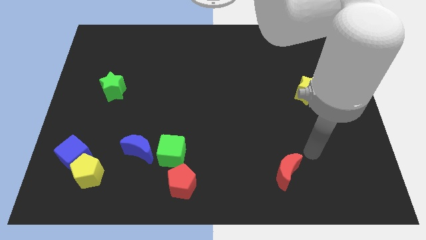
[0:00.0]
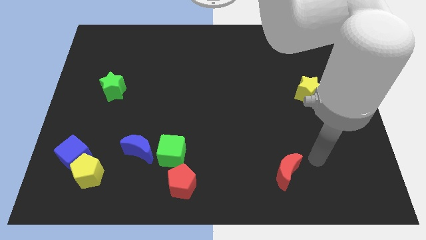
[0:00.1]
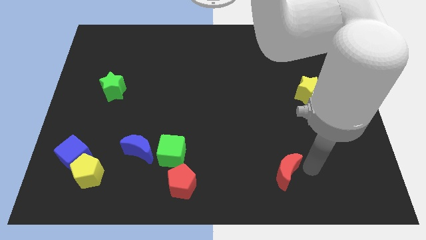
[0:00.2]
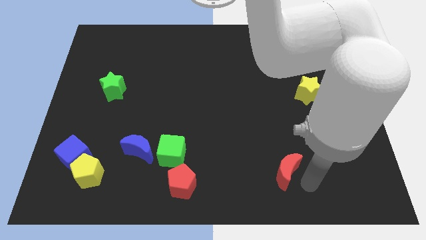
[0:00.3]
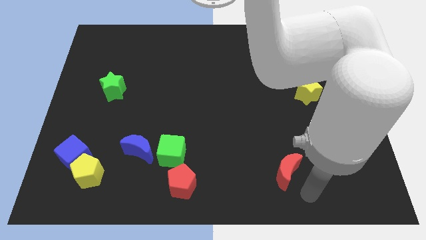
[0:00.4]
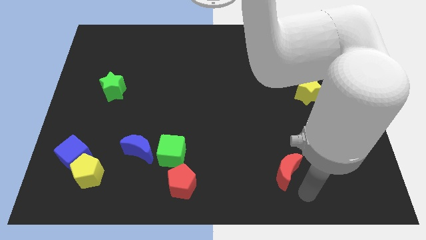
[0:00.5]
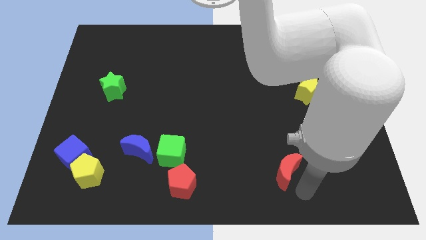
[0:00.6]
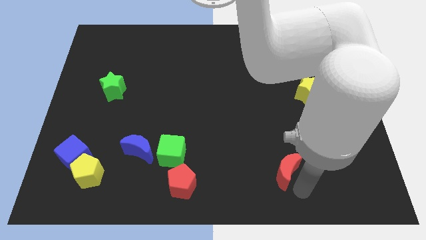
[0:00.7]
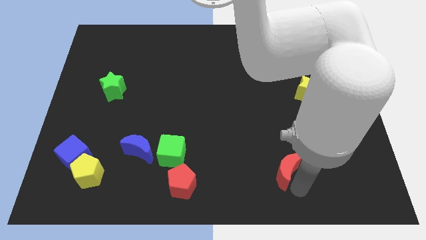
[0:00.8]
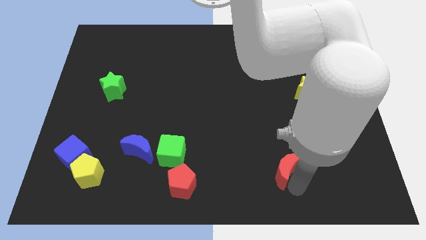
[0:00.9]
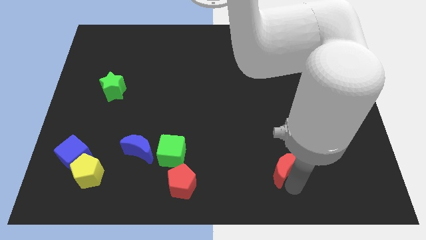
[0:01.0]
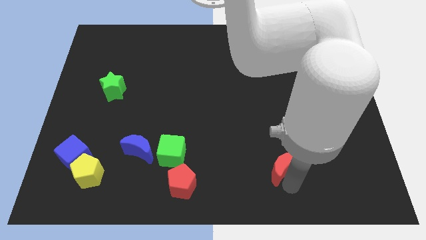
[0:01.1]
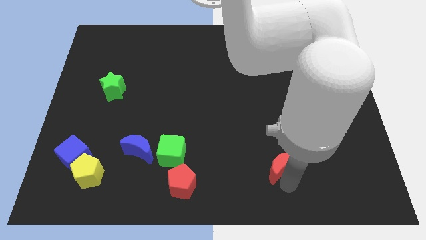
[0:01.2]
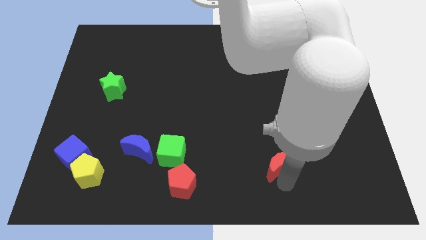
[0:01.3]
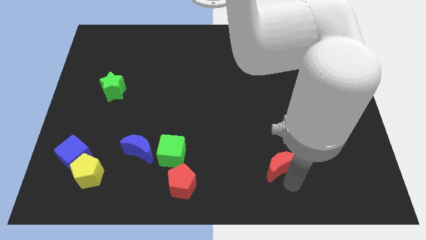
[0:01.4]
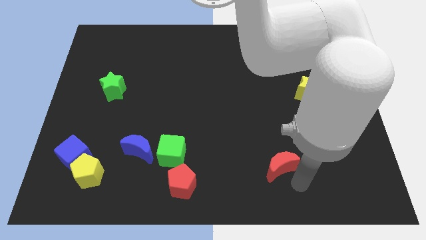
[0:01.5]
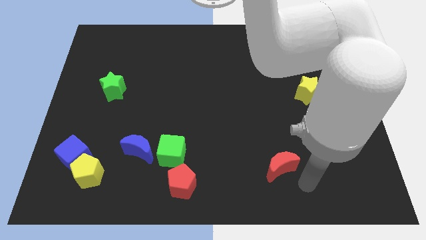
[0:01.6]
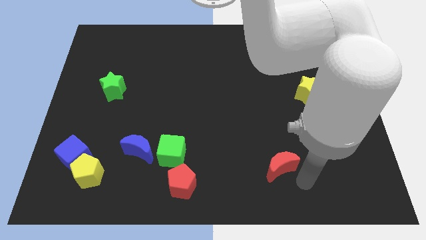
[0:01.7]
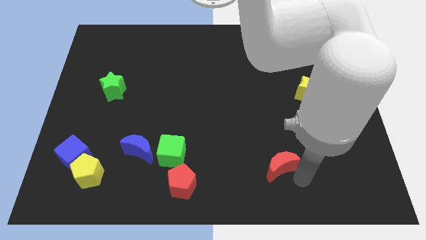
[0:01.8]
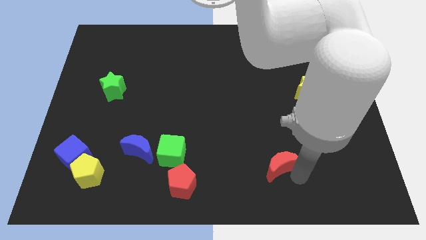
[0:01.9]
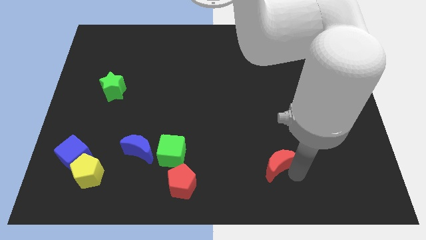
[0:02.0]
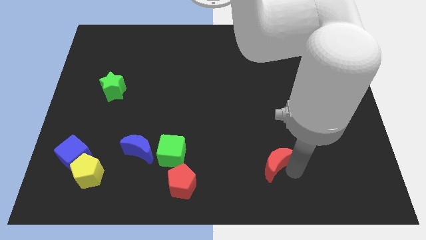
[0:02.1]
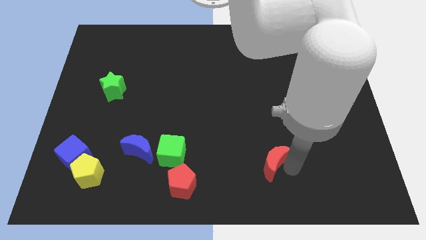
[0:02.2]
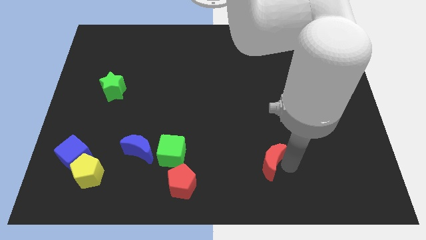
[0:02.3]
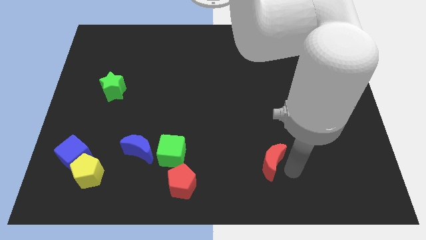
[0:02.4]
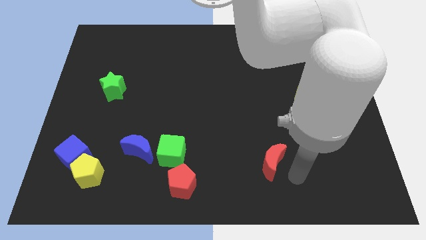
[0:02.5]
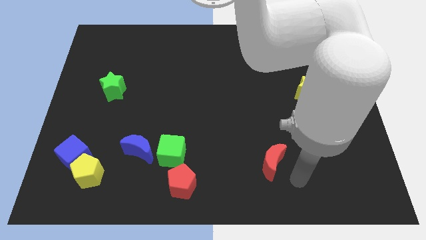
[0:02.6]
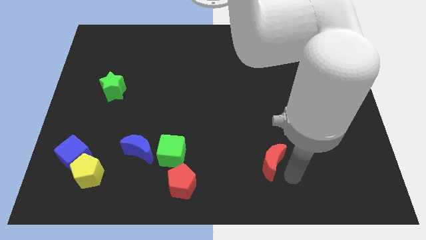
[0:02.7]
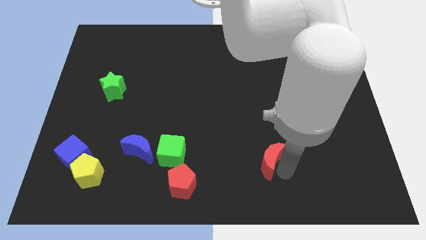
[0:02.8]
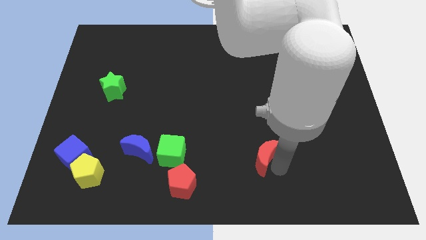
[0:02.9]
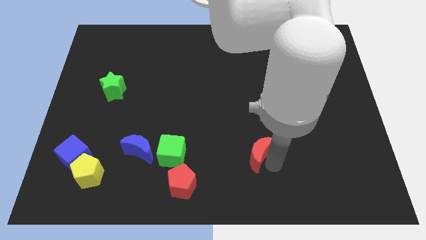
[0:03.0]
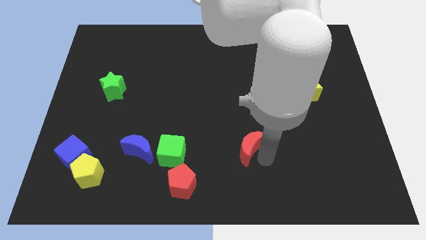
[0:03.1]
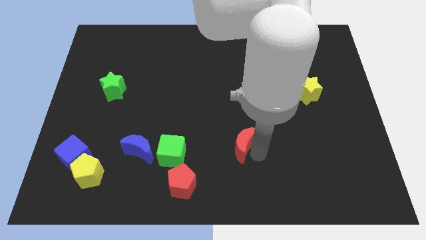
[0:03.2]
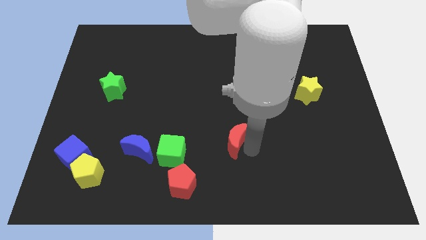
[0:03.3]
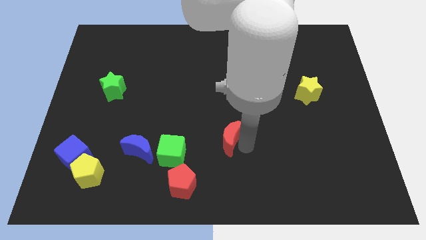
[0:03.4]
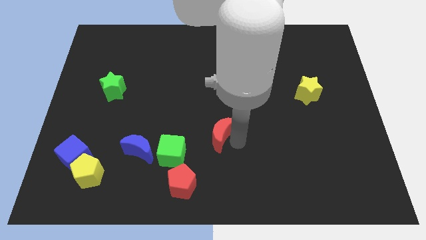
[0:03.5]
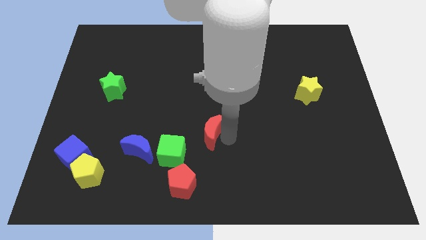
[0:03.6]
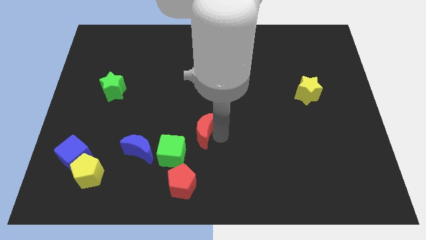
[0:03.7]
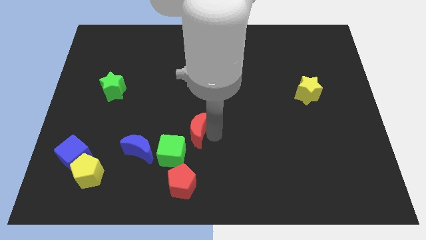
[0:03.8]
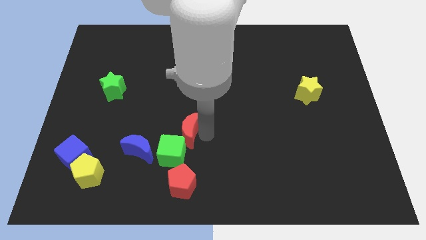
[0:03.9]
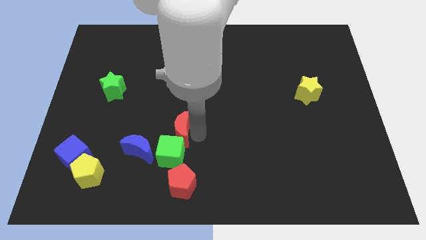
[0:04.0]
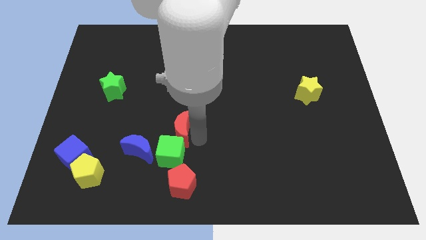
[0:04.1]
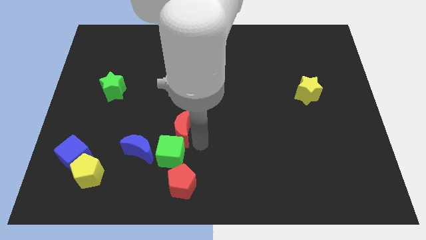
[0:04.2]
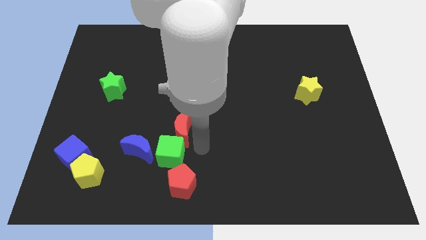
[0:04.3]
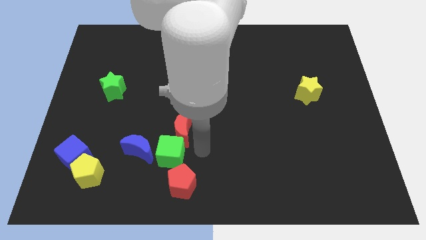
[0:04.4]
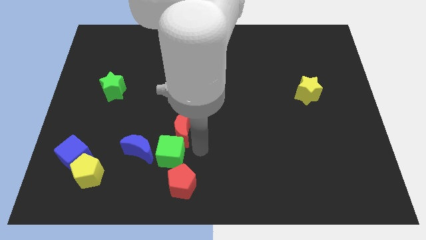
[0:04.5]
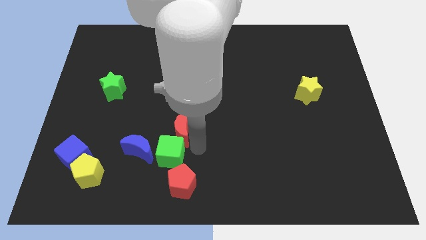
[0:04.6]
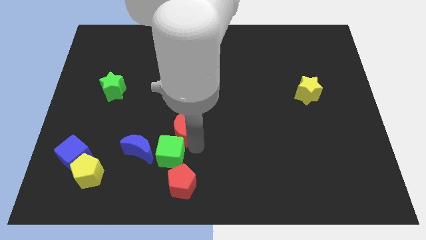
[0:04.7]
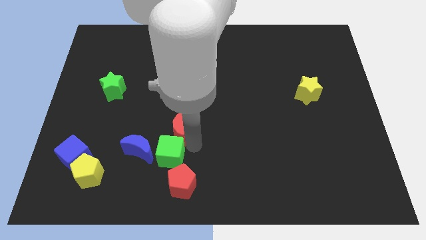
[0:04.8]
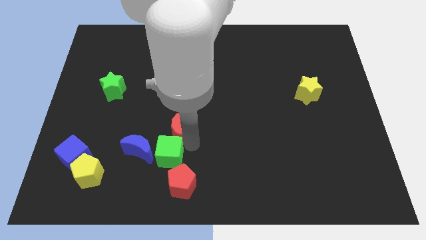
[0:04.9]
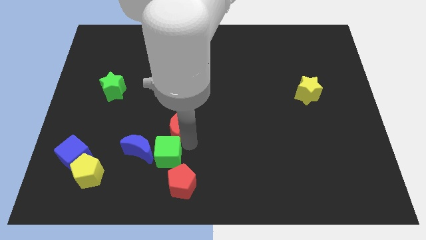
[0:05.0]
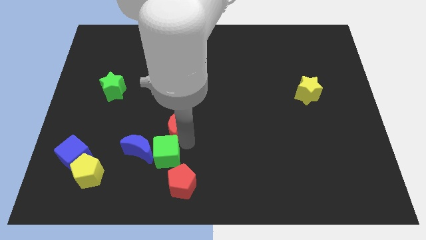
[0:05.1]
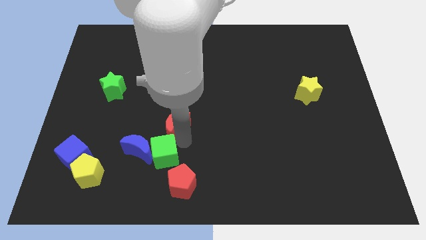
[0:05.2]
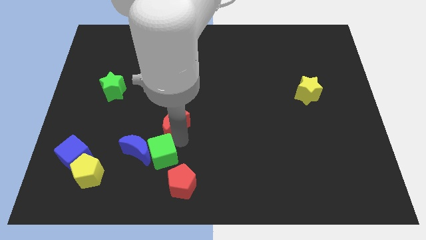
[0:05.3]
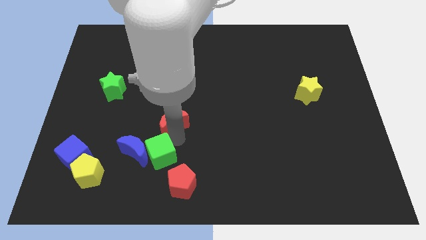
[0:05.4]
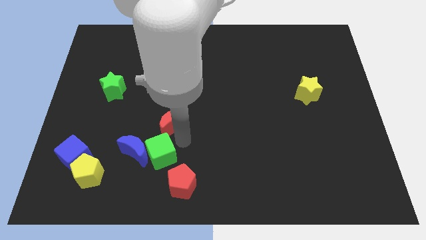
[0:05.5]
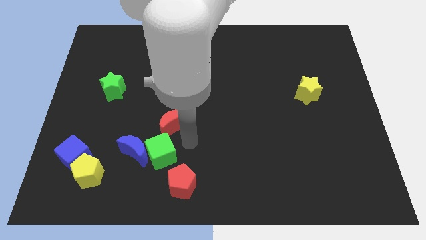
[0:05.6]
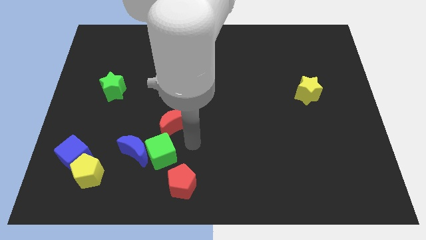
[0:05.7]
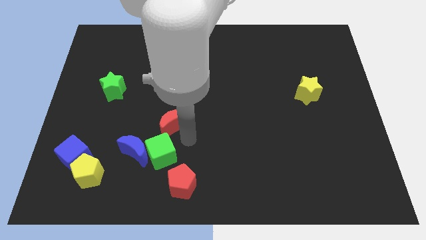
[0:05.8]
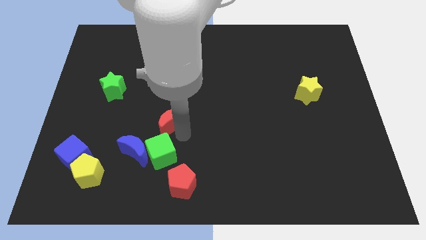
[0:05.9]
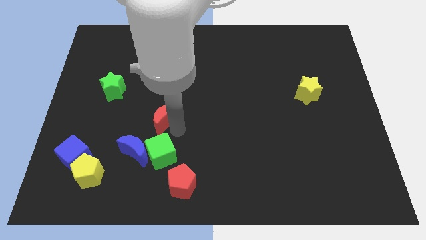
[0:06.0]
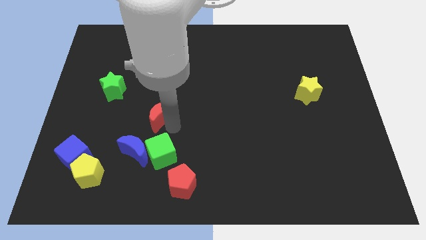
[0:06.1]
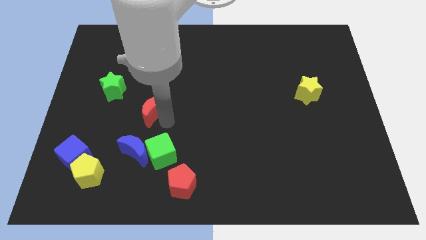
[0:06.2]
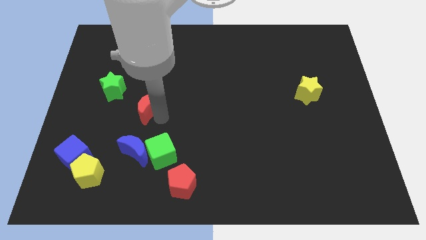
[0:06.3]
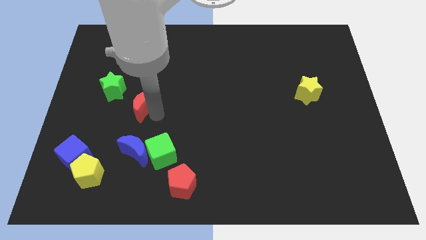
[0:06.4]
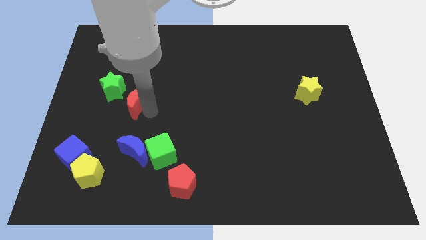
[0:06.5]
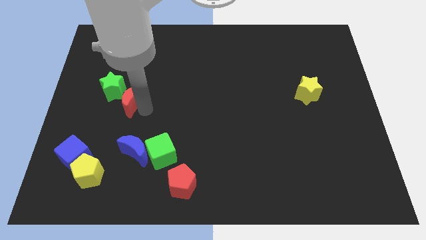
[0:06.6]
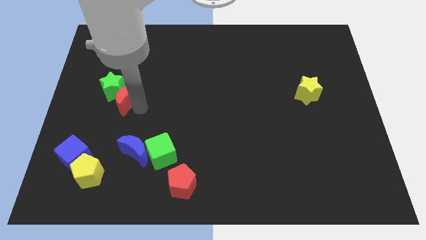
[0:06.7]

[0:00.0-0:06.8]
slide the red moon next to the green star

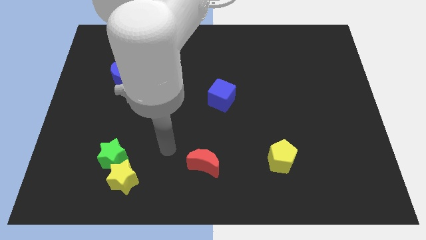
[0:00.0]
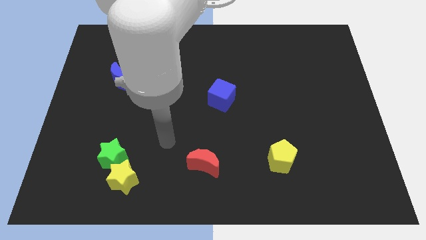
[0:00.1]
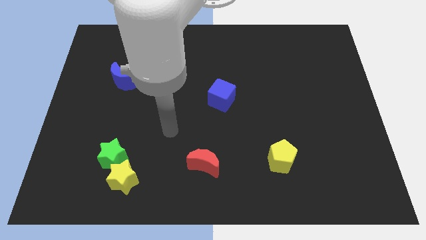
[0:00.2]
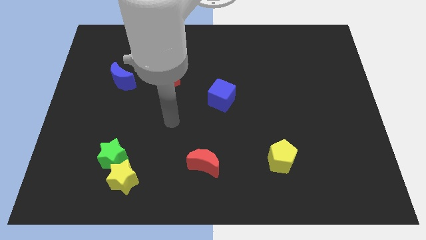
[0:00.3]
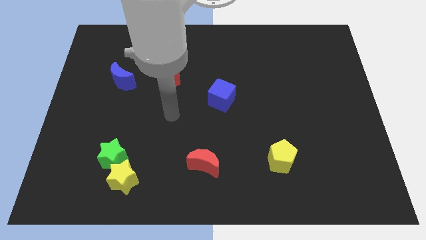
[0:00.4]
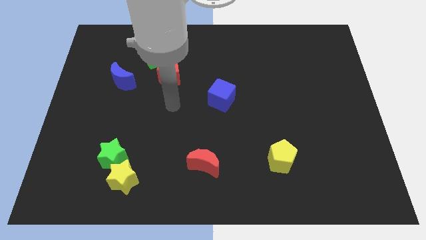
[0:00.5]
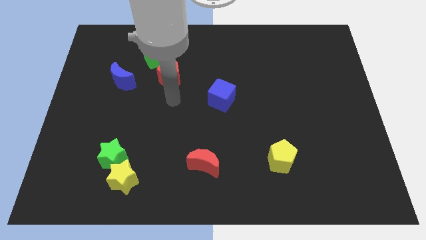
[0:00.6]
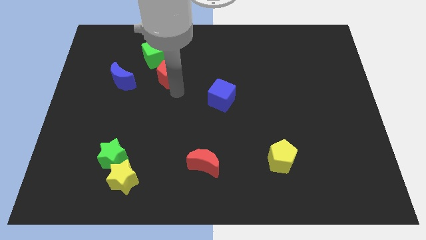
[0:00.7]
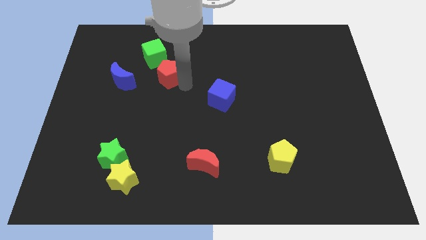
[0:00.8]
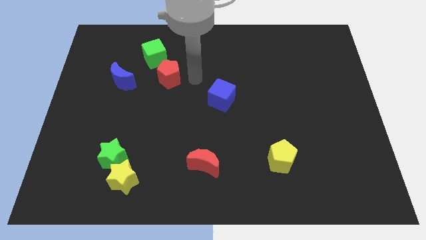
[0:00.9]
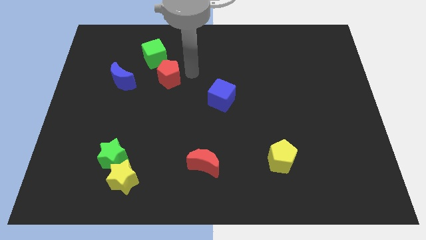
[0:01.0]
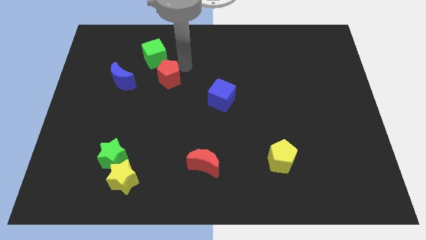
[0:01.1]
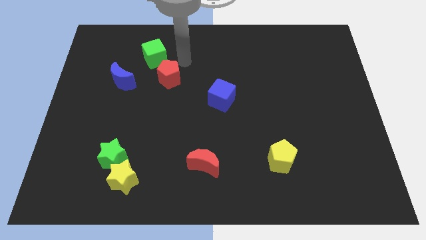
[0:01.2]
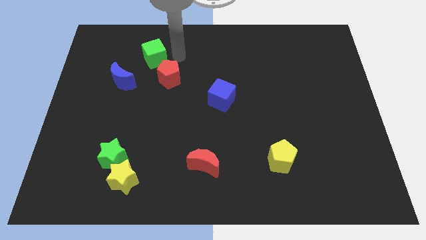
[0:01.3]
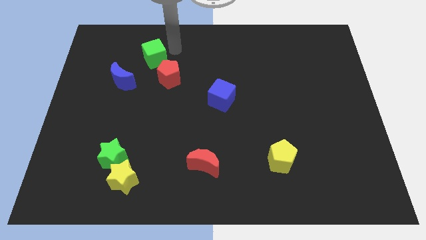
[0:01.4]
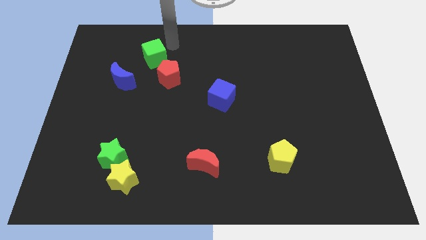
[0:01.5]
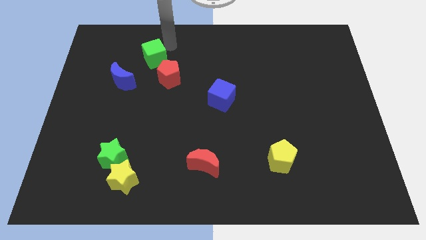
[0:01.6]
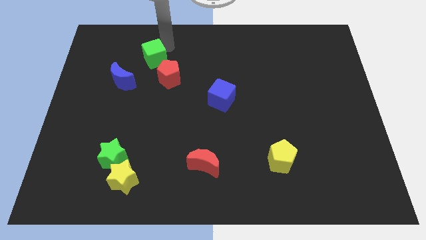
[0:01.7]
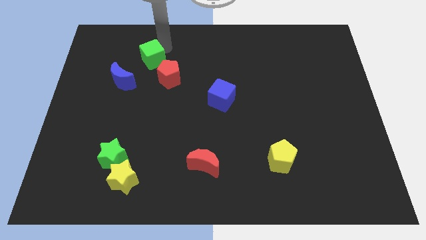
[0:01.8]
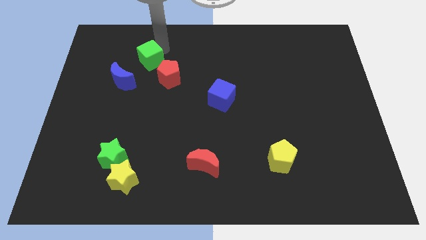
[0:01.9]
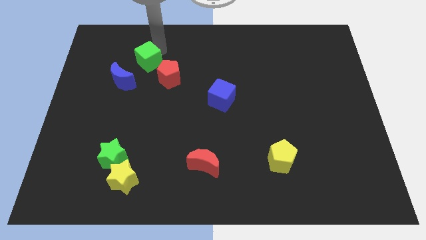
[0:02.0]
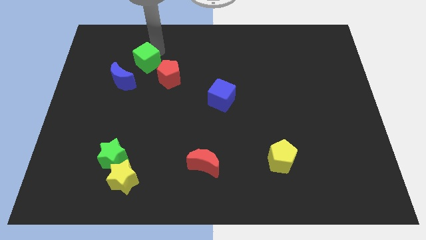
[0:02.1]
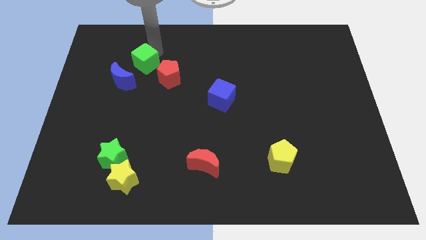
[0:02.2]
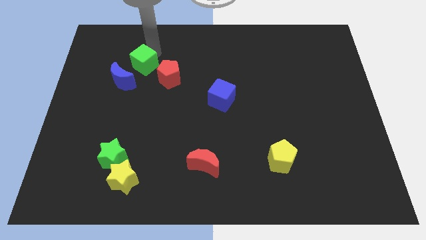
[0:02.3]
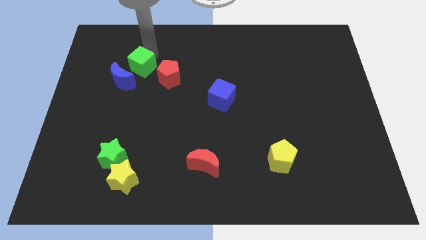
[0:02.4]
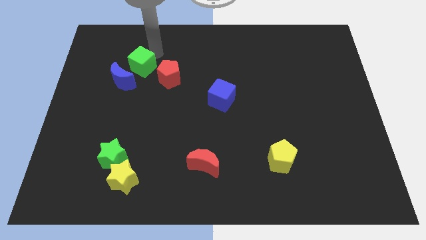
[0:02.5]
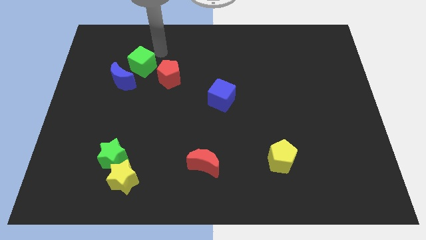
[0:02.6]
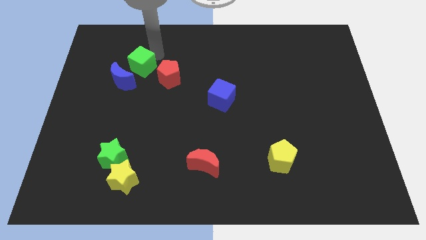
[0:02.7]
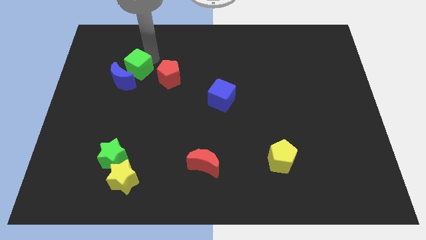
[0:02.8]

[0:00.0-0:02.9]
move the green cube towards the blue moon
